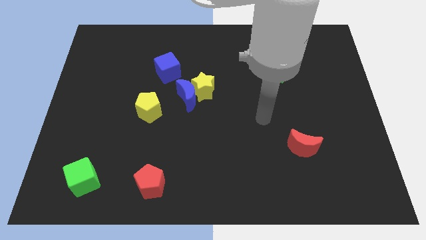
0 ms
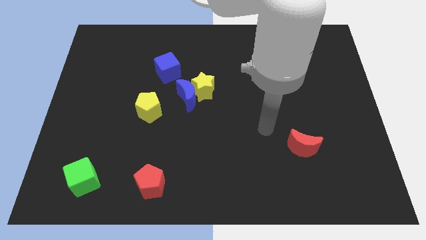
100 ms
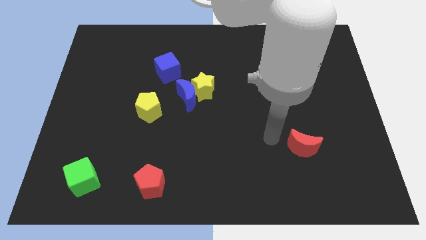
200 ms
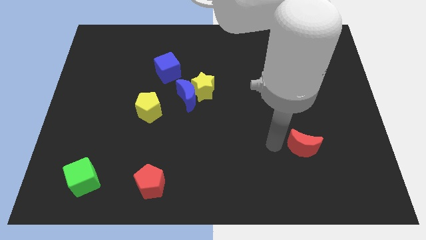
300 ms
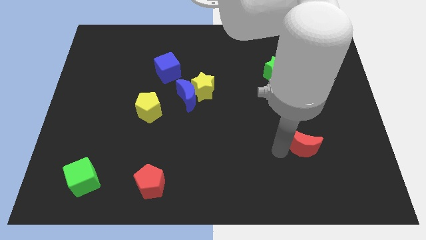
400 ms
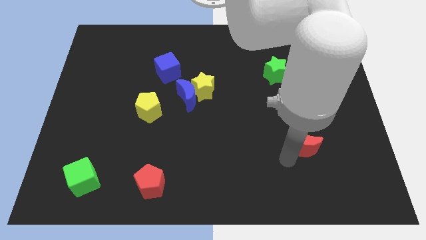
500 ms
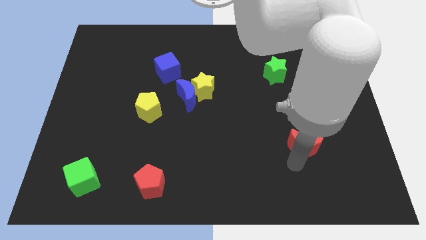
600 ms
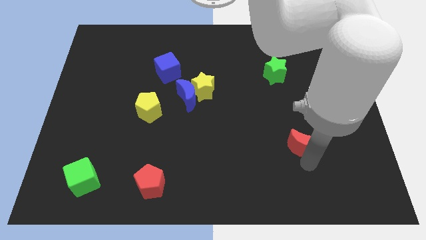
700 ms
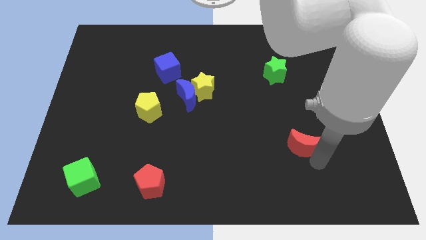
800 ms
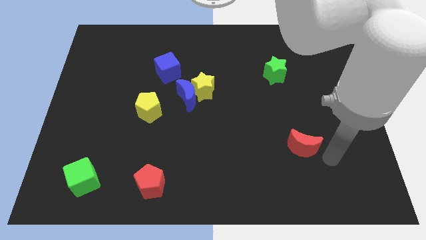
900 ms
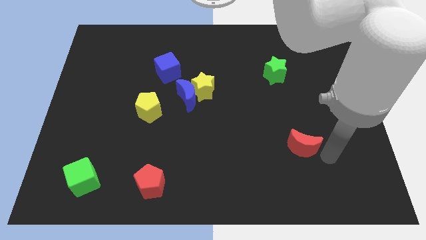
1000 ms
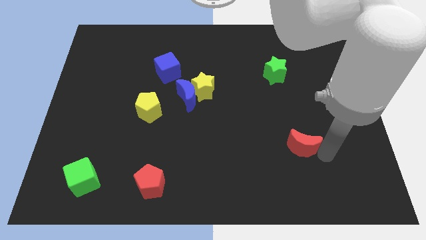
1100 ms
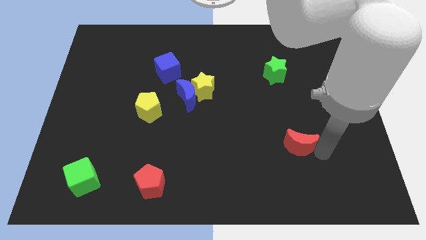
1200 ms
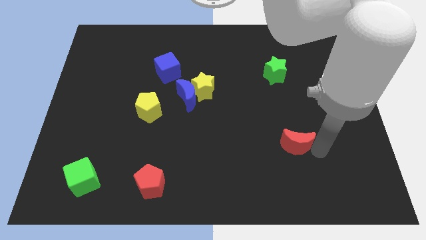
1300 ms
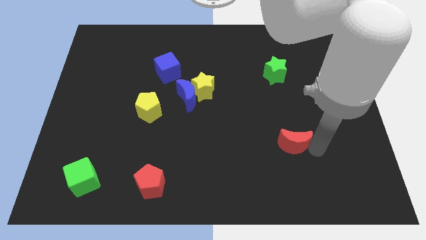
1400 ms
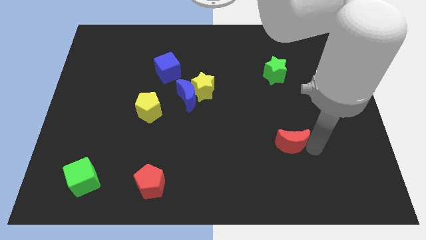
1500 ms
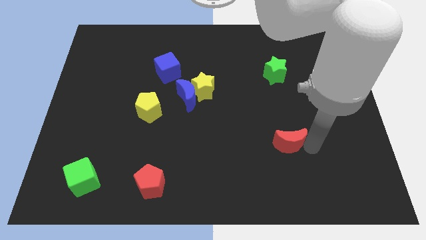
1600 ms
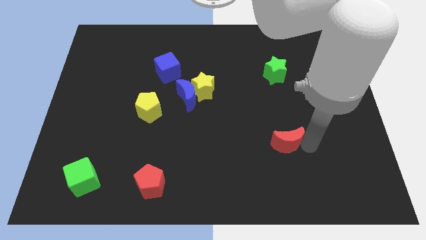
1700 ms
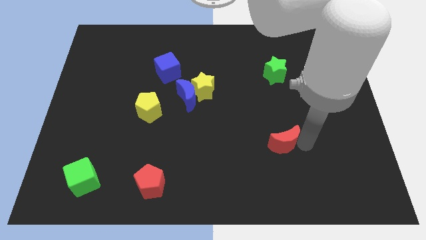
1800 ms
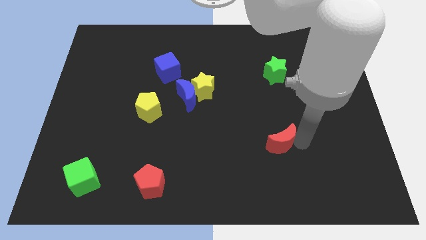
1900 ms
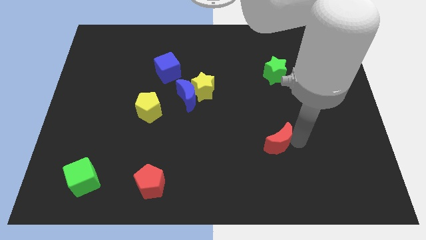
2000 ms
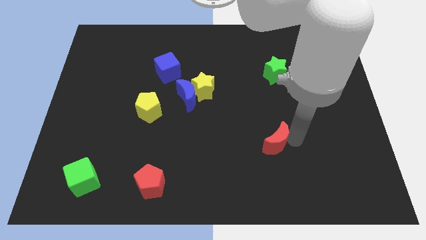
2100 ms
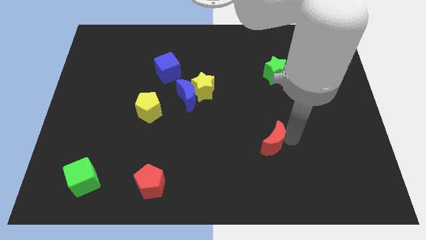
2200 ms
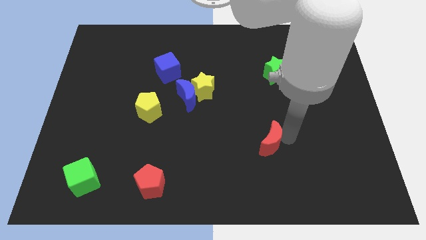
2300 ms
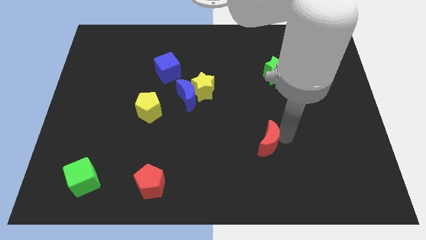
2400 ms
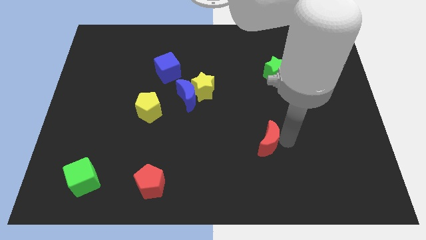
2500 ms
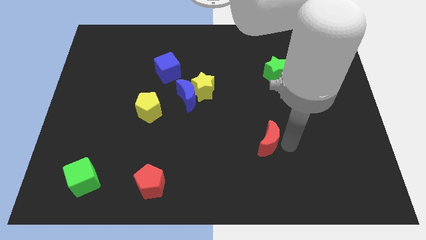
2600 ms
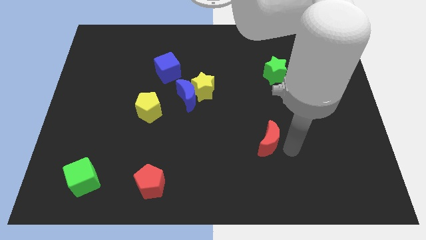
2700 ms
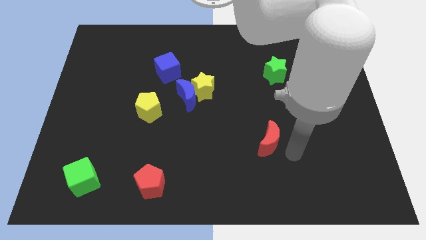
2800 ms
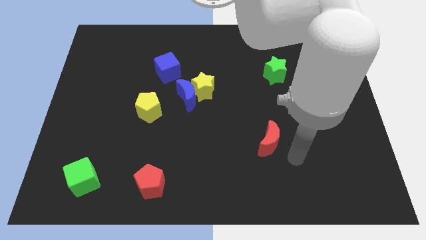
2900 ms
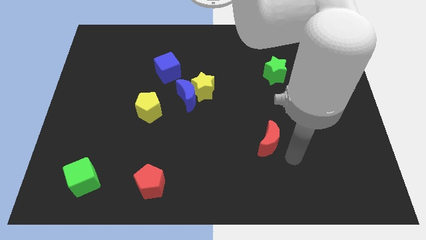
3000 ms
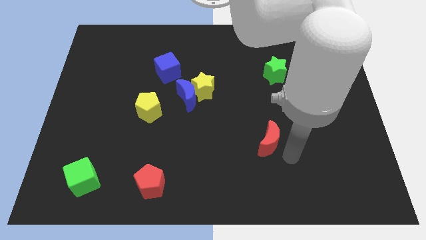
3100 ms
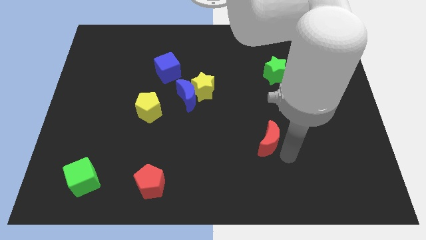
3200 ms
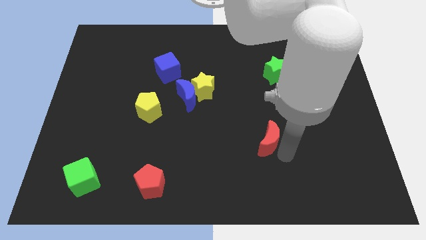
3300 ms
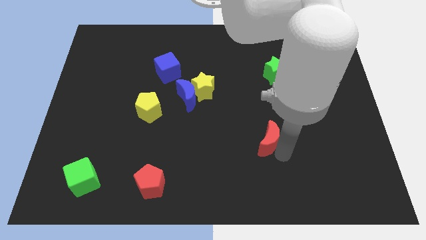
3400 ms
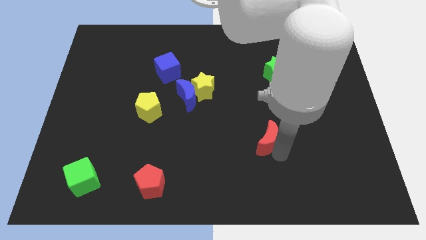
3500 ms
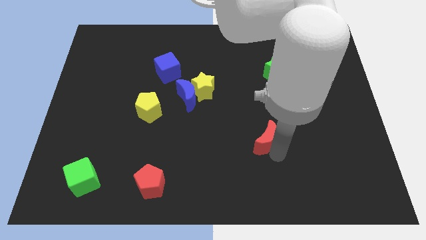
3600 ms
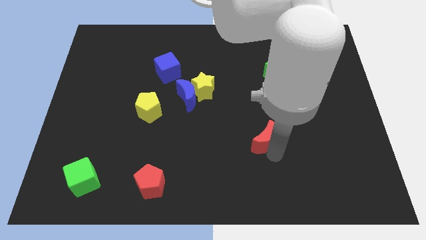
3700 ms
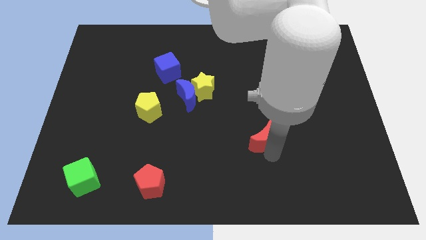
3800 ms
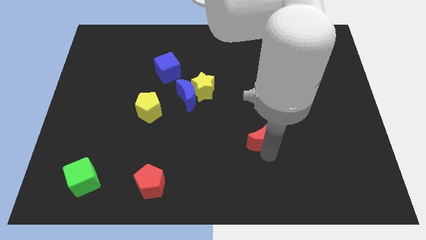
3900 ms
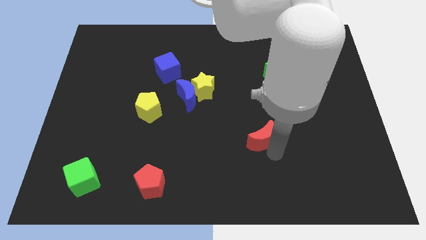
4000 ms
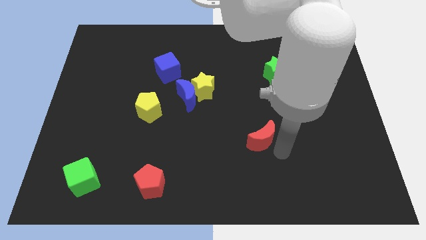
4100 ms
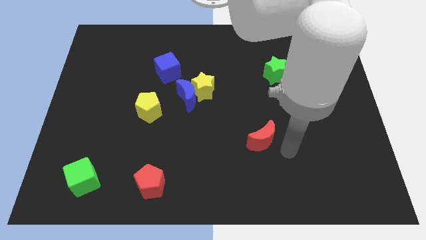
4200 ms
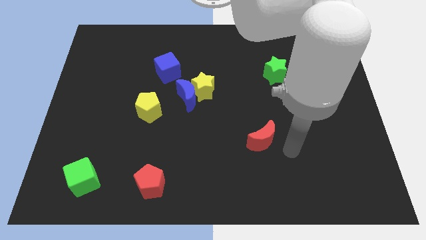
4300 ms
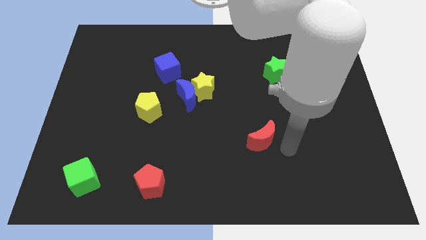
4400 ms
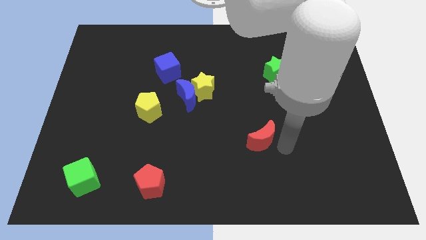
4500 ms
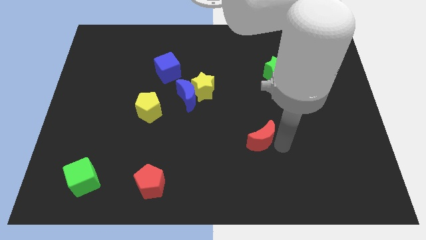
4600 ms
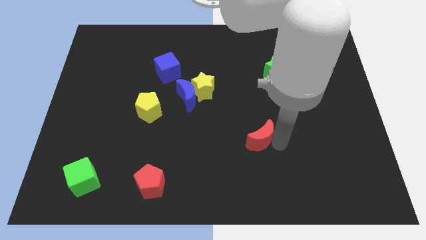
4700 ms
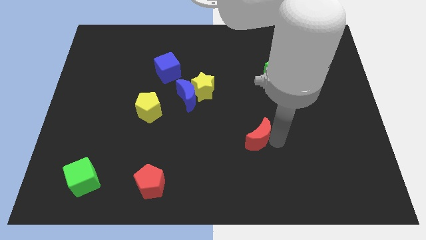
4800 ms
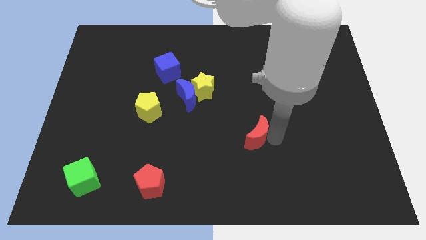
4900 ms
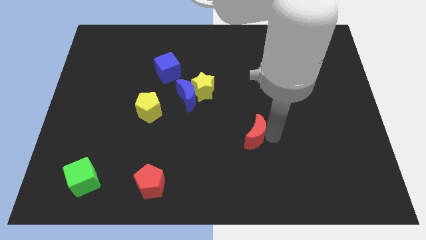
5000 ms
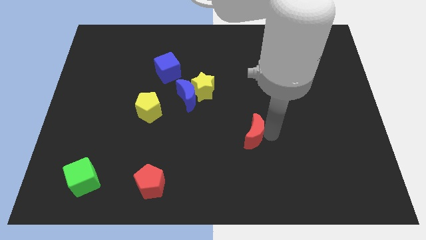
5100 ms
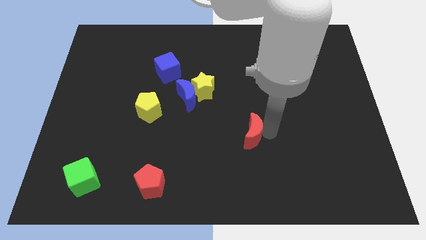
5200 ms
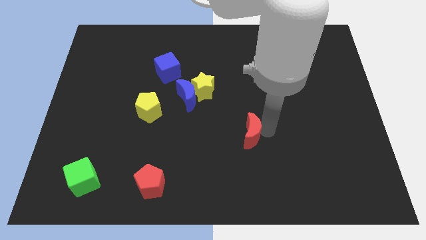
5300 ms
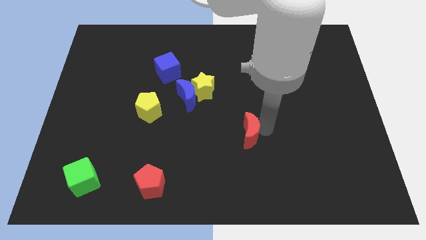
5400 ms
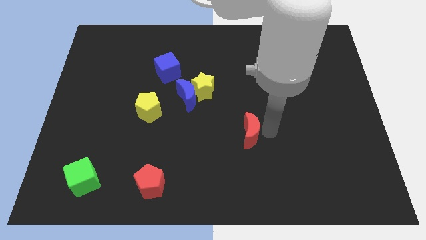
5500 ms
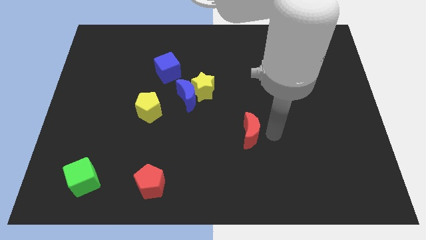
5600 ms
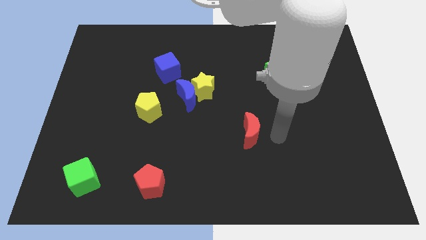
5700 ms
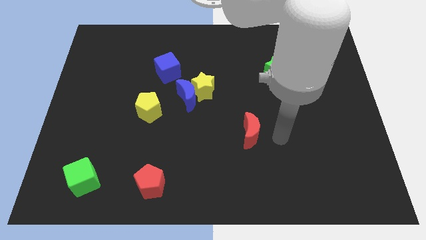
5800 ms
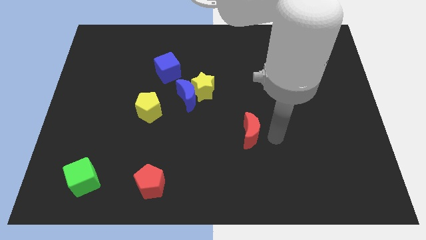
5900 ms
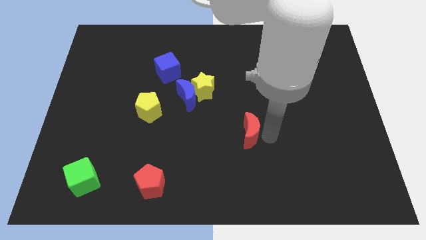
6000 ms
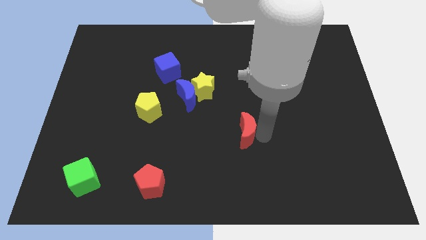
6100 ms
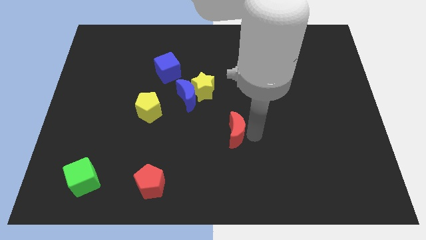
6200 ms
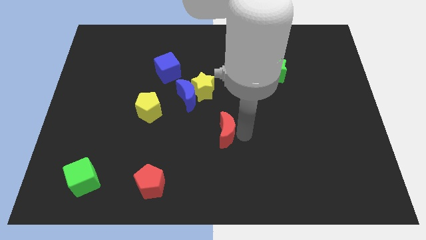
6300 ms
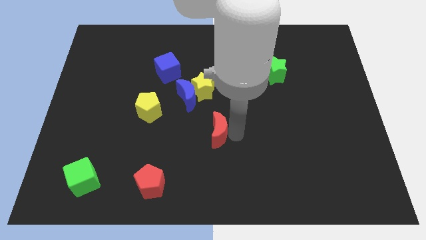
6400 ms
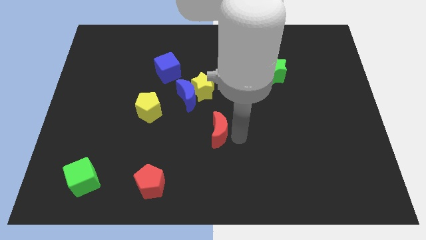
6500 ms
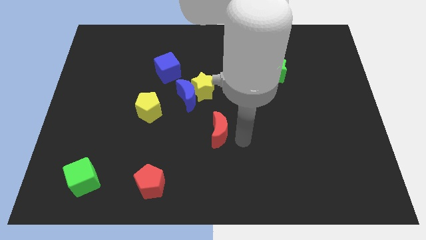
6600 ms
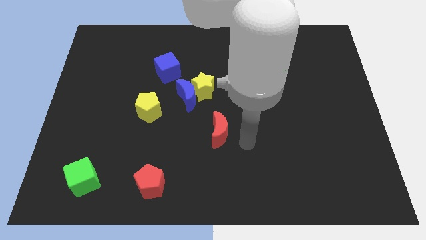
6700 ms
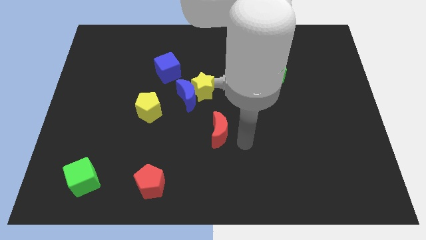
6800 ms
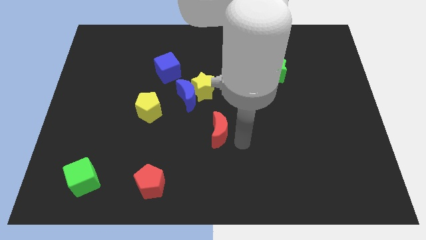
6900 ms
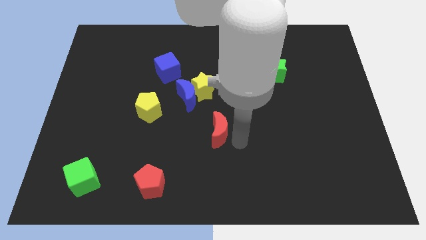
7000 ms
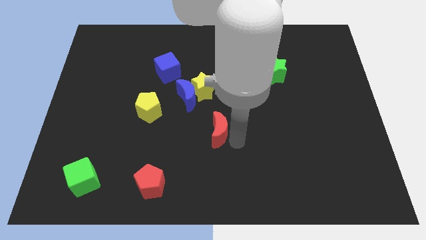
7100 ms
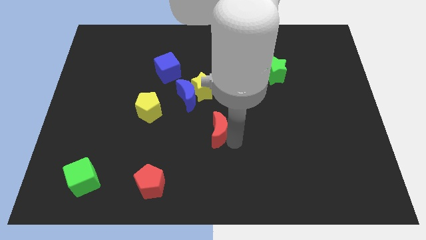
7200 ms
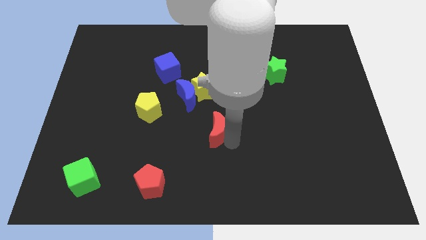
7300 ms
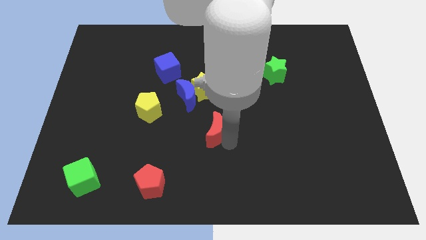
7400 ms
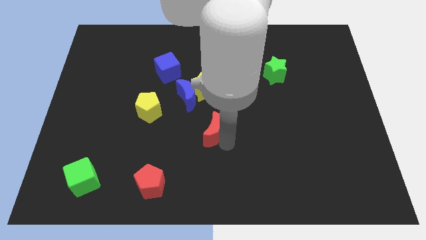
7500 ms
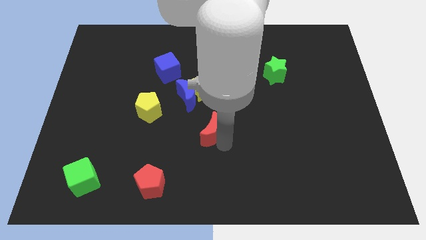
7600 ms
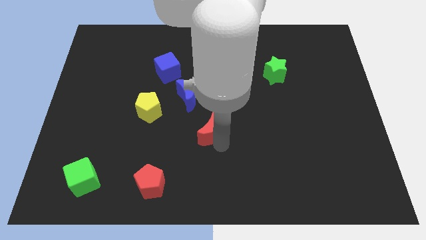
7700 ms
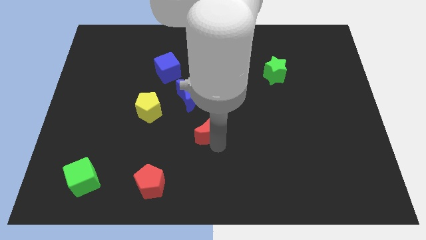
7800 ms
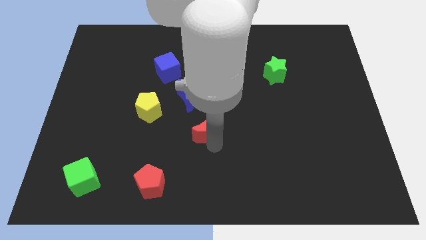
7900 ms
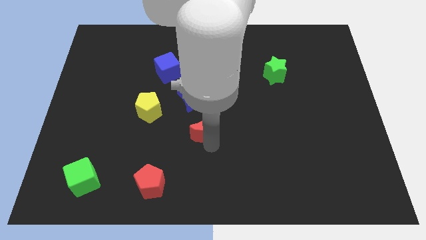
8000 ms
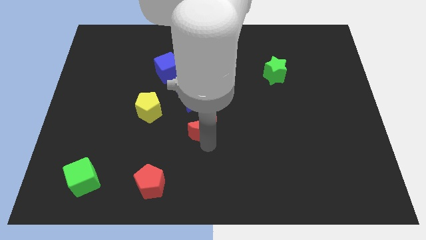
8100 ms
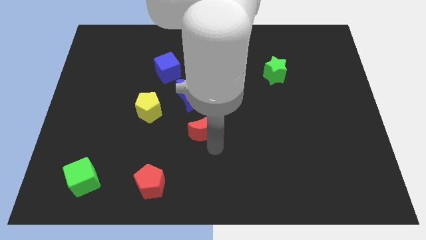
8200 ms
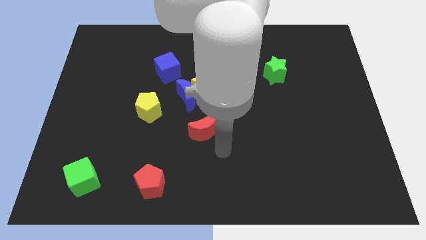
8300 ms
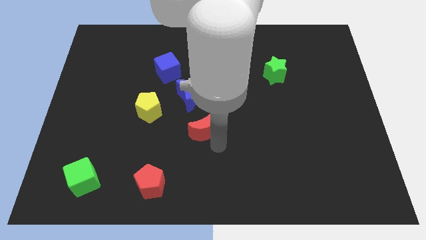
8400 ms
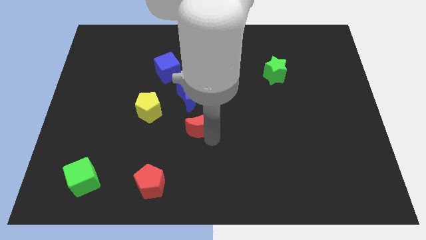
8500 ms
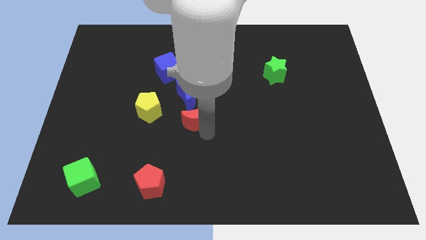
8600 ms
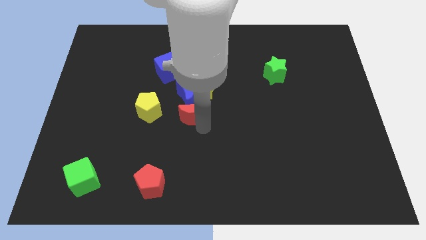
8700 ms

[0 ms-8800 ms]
slide the red moon diagonally down and to the left of the yellow star
